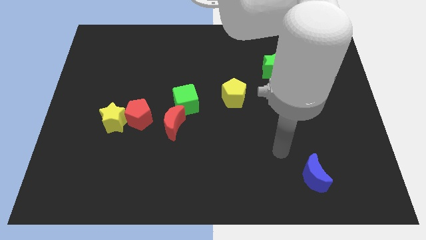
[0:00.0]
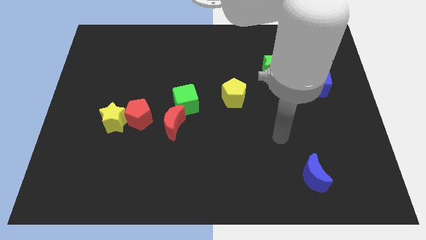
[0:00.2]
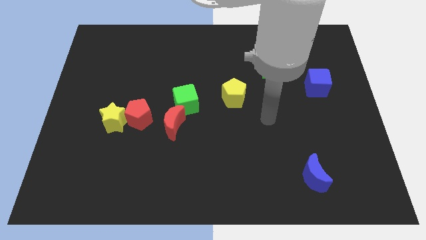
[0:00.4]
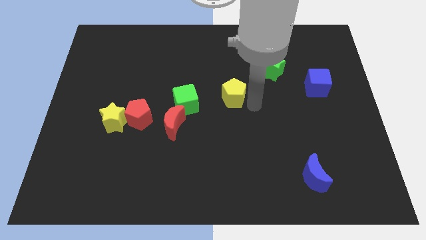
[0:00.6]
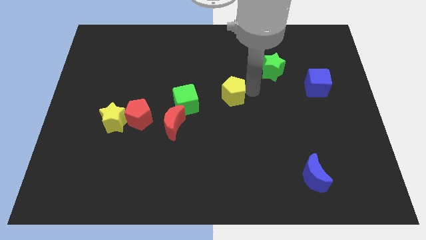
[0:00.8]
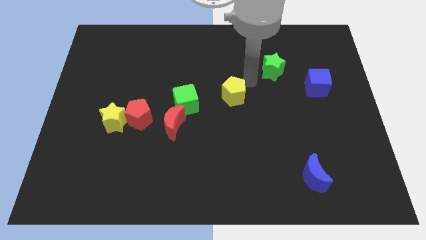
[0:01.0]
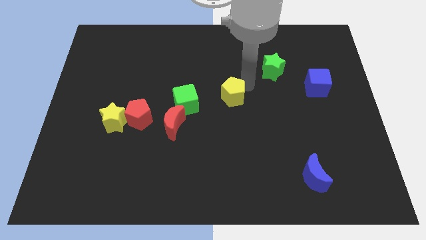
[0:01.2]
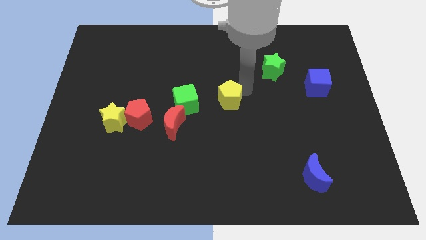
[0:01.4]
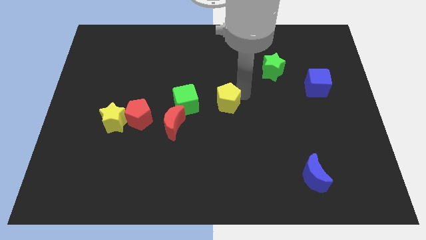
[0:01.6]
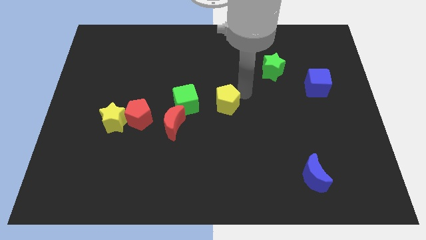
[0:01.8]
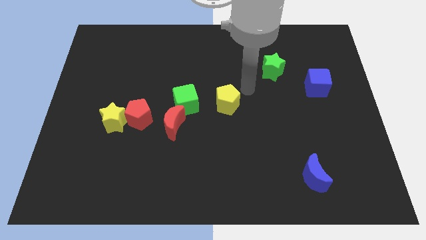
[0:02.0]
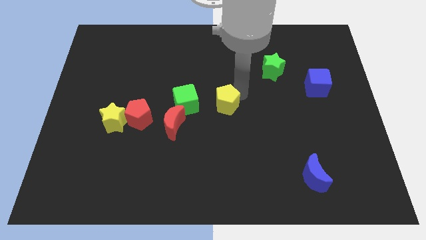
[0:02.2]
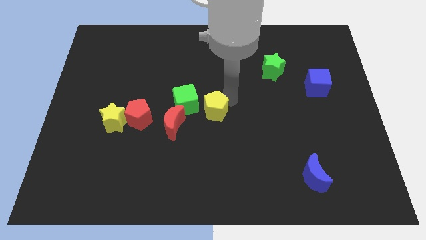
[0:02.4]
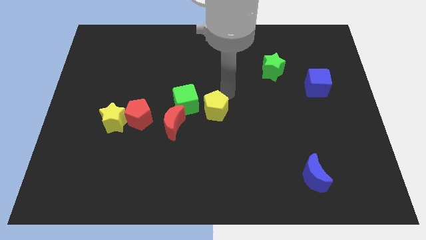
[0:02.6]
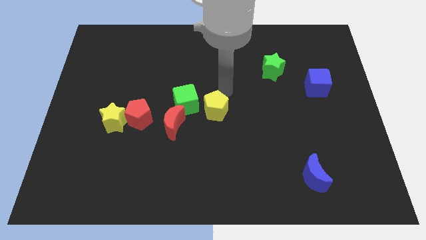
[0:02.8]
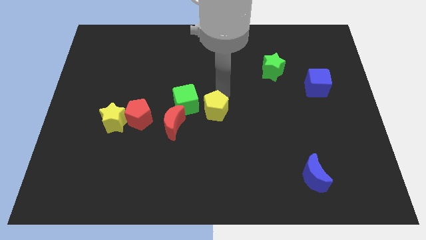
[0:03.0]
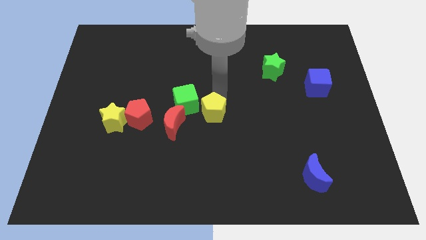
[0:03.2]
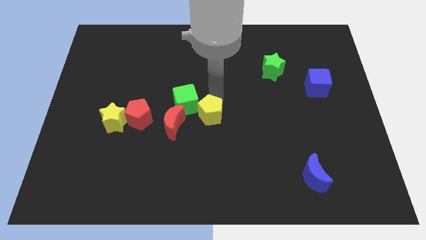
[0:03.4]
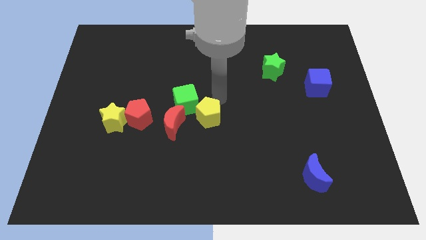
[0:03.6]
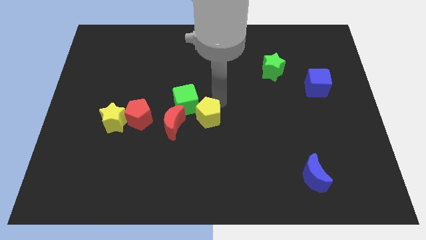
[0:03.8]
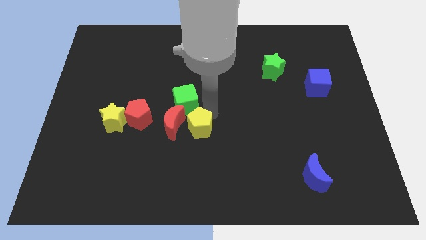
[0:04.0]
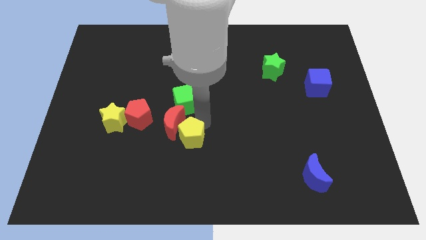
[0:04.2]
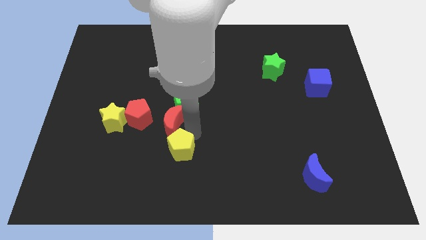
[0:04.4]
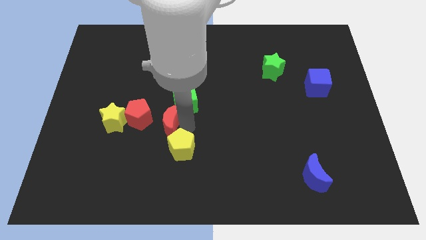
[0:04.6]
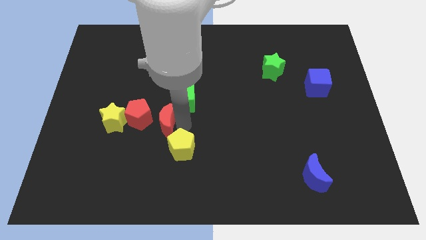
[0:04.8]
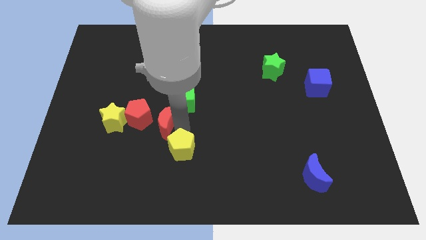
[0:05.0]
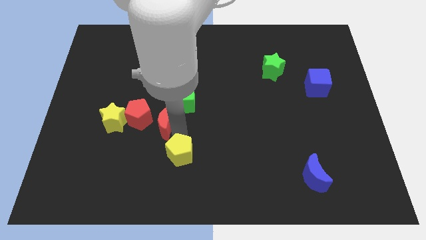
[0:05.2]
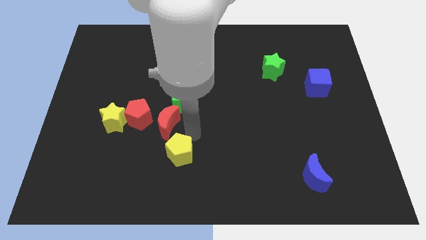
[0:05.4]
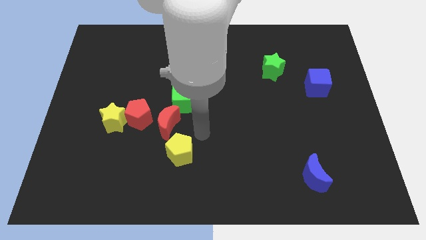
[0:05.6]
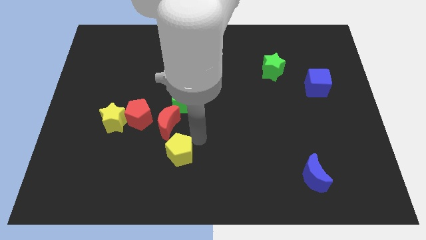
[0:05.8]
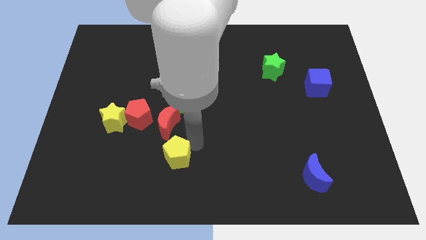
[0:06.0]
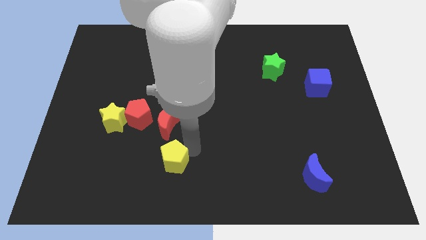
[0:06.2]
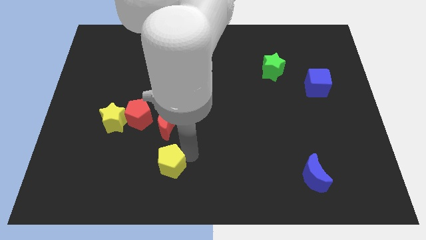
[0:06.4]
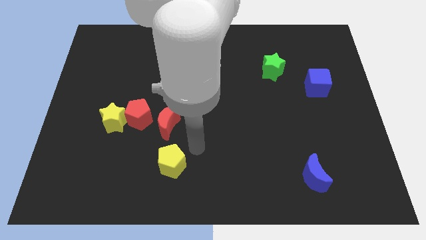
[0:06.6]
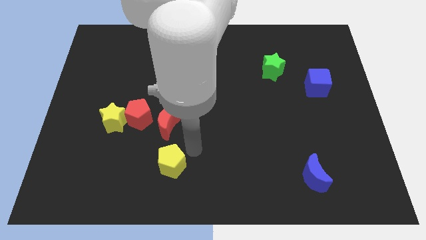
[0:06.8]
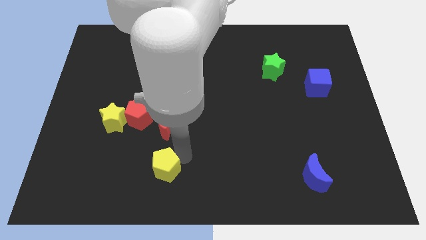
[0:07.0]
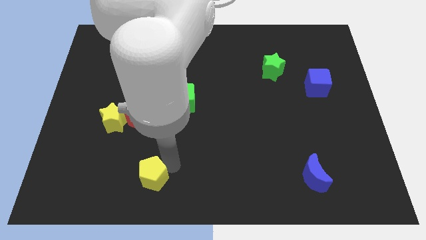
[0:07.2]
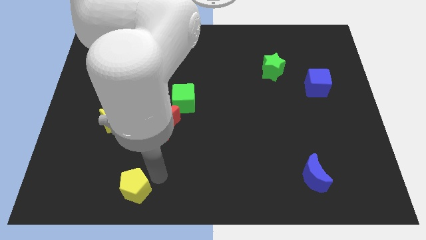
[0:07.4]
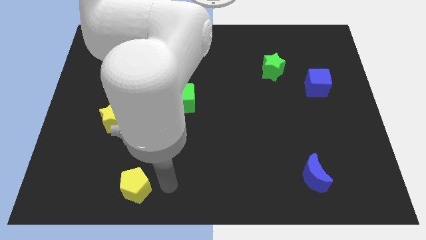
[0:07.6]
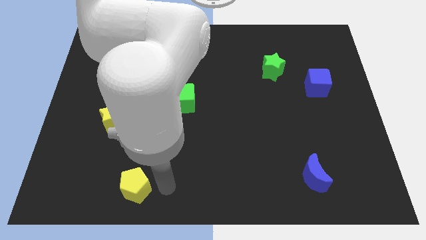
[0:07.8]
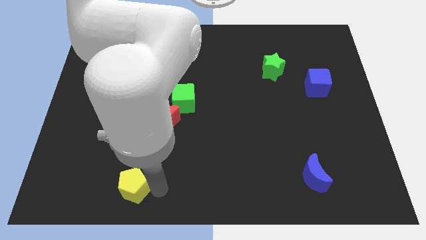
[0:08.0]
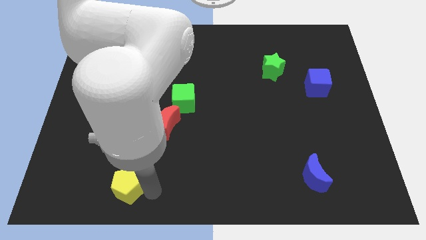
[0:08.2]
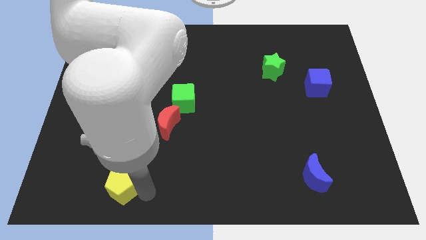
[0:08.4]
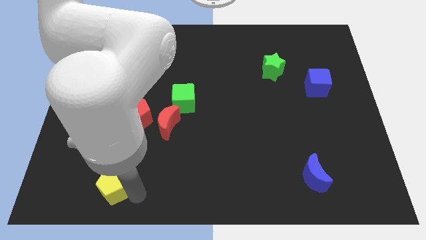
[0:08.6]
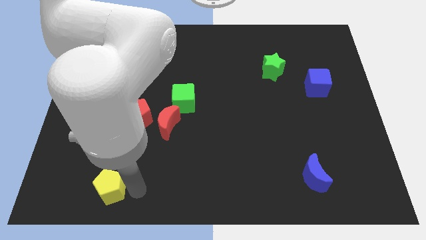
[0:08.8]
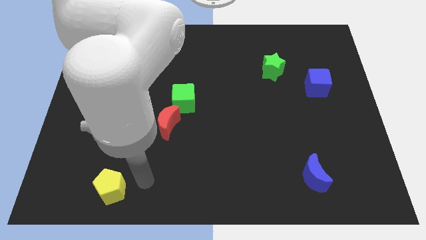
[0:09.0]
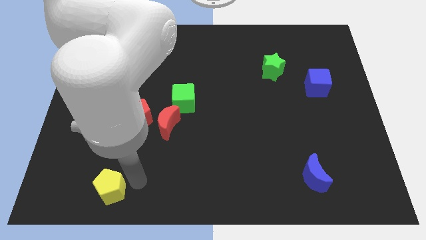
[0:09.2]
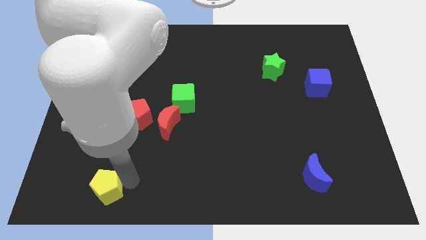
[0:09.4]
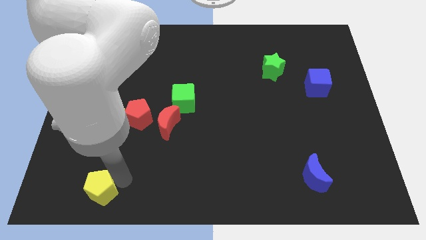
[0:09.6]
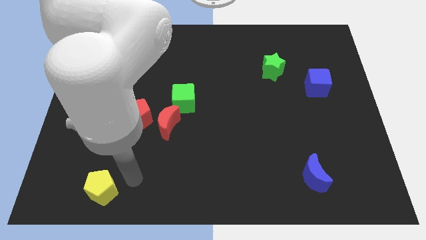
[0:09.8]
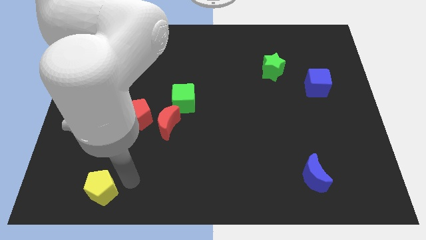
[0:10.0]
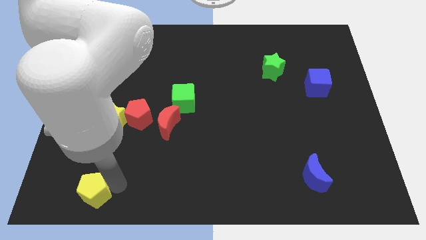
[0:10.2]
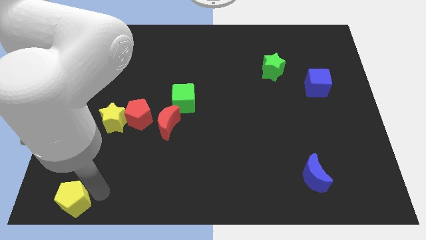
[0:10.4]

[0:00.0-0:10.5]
push the yellow pentagon to the lower left corner

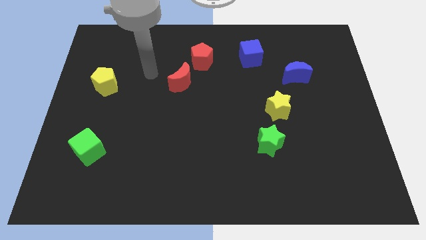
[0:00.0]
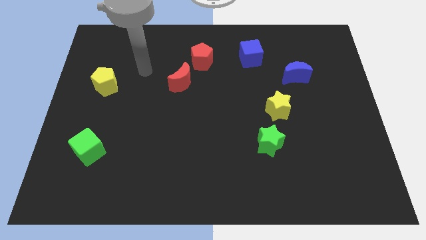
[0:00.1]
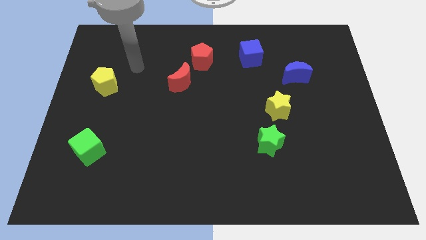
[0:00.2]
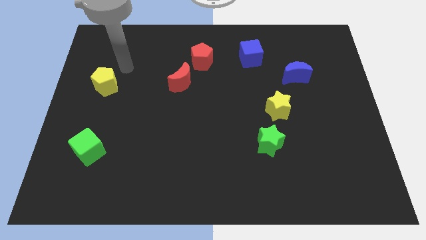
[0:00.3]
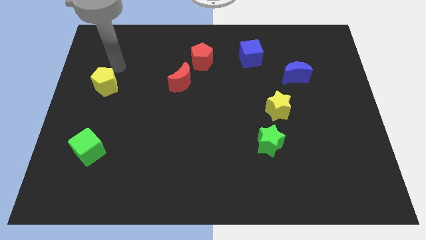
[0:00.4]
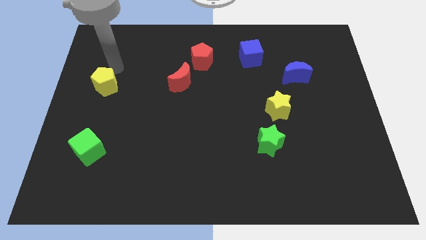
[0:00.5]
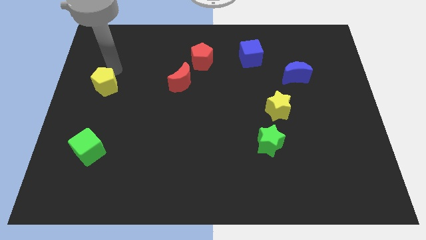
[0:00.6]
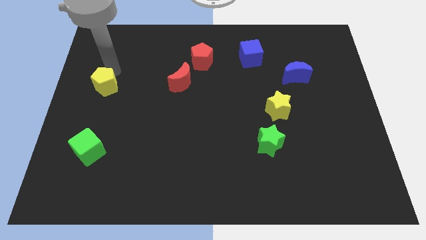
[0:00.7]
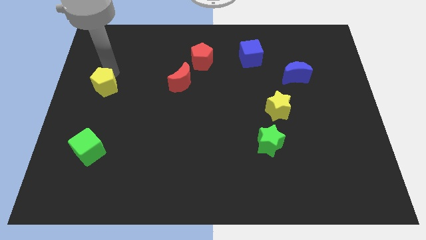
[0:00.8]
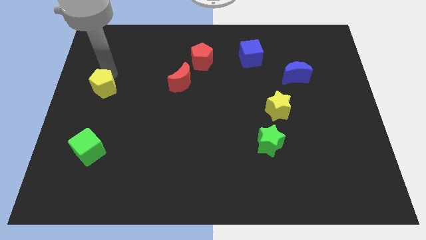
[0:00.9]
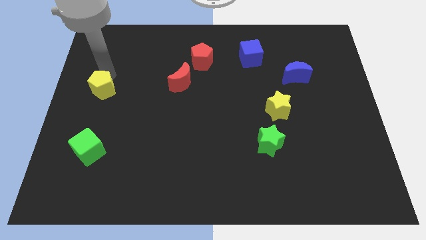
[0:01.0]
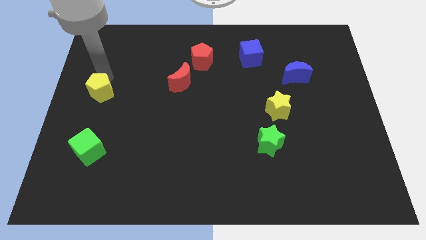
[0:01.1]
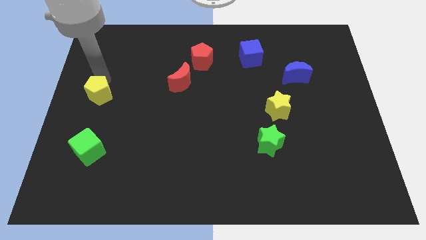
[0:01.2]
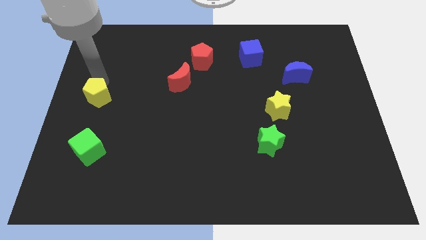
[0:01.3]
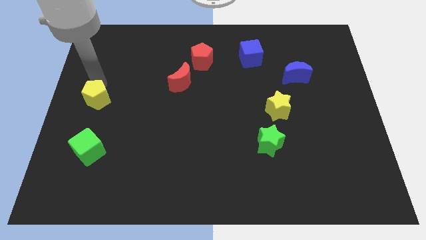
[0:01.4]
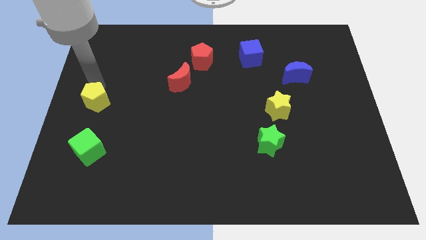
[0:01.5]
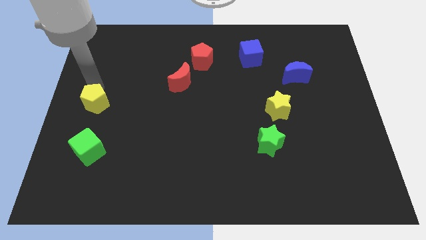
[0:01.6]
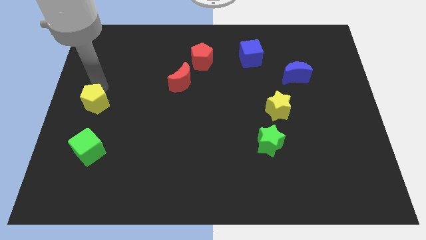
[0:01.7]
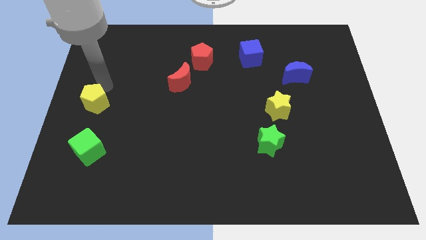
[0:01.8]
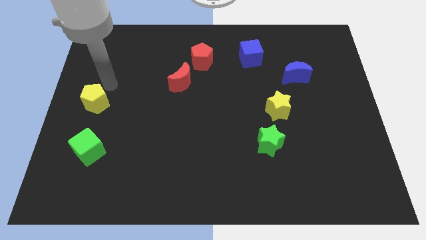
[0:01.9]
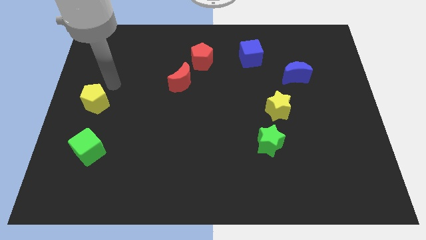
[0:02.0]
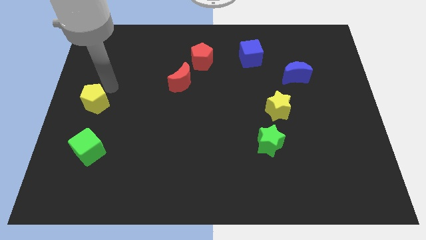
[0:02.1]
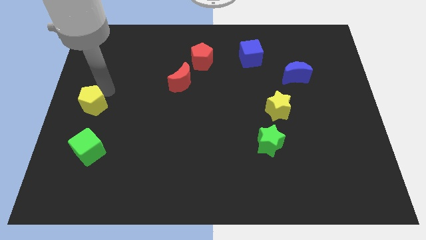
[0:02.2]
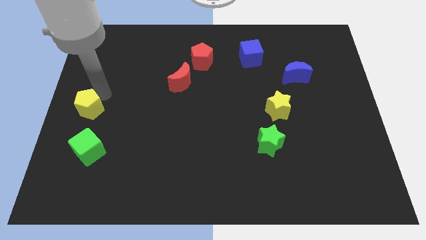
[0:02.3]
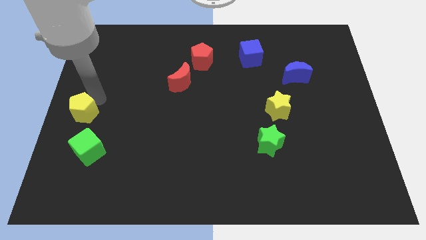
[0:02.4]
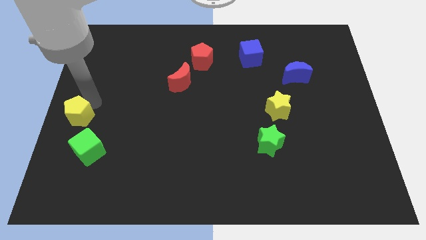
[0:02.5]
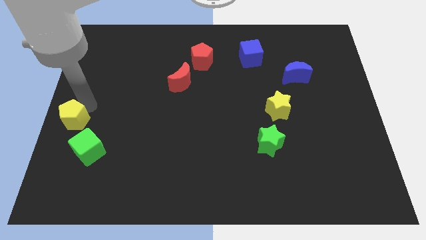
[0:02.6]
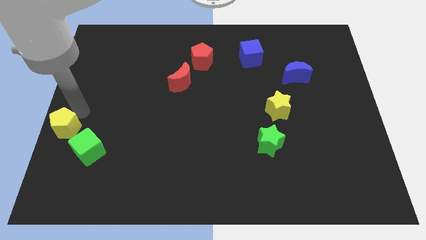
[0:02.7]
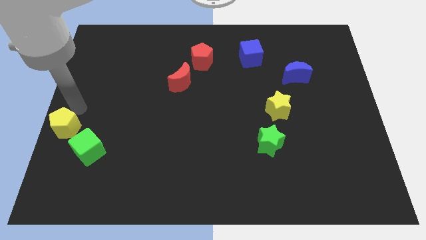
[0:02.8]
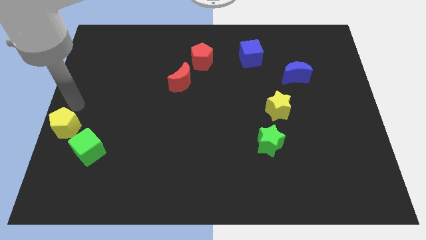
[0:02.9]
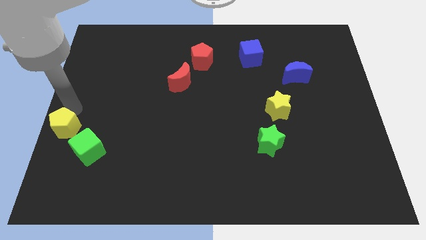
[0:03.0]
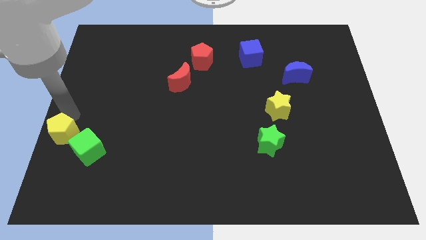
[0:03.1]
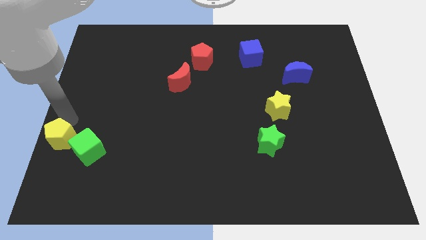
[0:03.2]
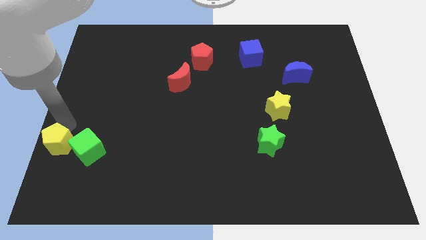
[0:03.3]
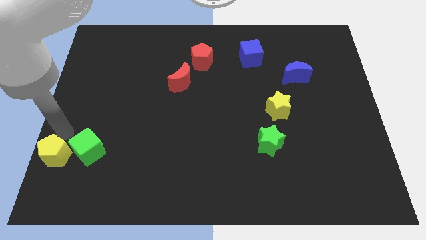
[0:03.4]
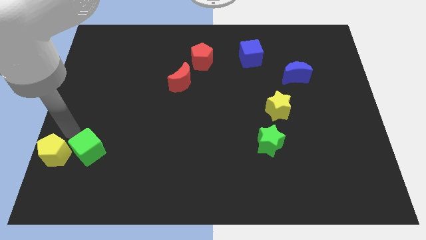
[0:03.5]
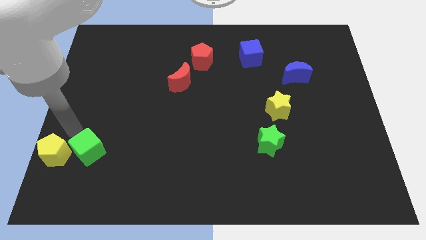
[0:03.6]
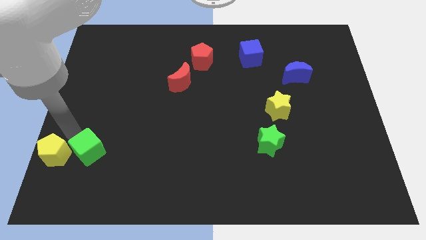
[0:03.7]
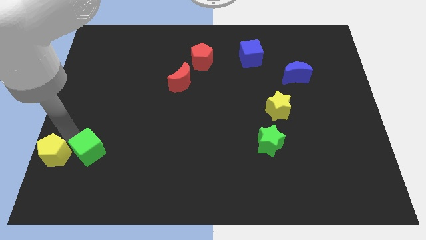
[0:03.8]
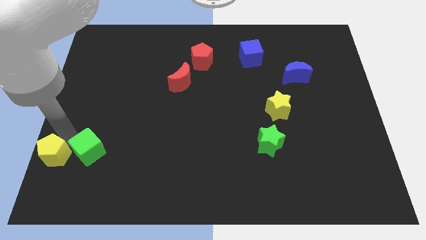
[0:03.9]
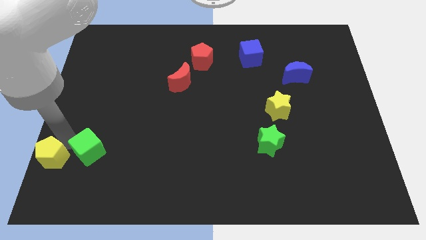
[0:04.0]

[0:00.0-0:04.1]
slide the yellow pentagon to the lower left corner
